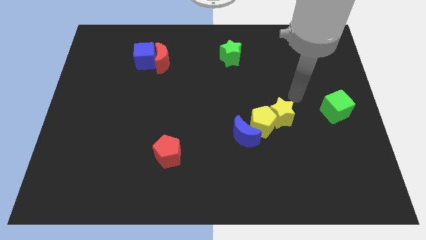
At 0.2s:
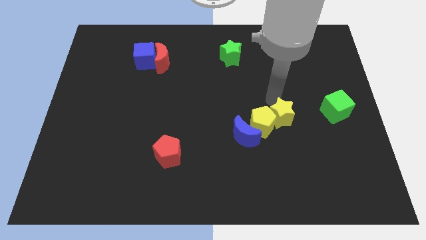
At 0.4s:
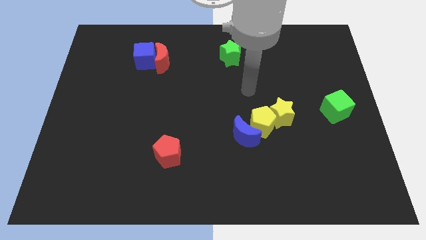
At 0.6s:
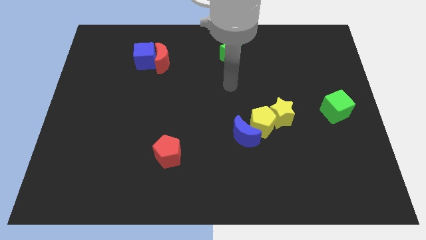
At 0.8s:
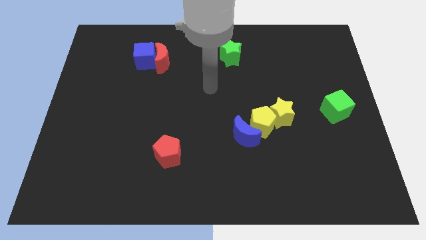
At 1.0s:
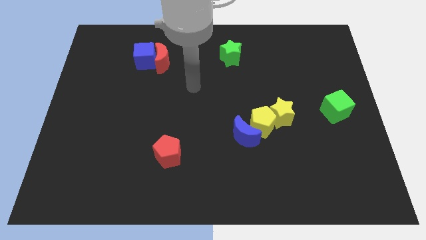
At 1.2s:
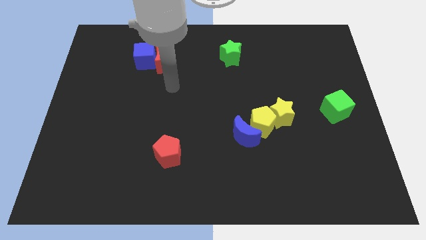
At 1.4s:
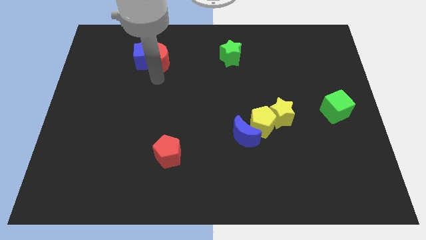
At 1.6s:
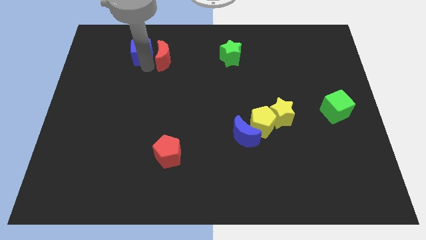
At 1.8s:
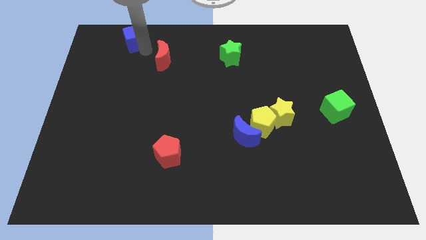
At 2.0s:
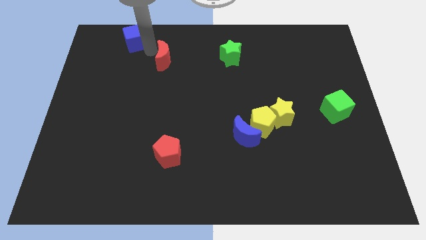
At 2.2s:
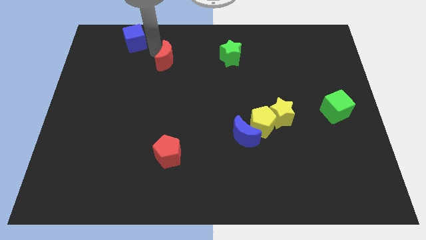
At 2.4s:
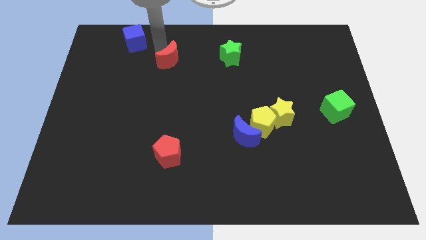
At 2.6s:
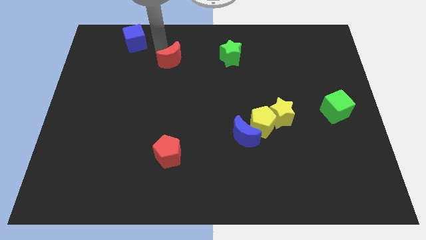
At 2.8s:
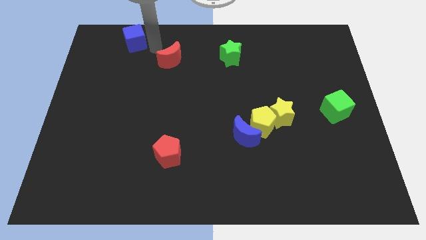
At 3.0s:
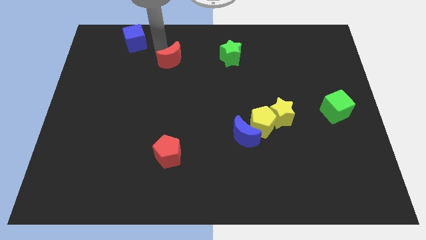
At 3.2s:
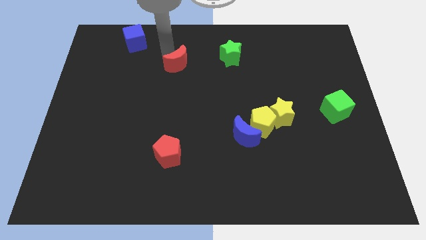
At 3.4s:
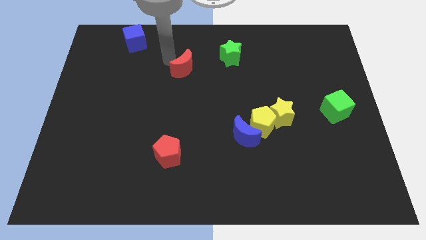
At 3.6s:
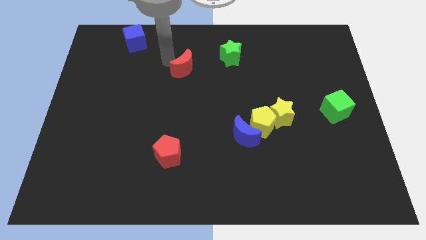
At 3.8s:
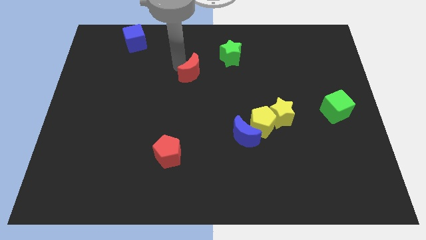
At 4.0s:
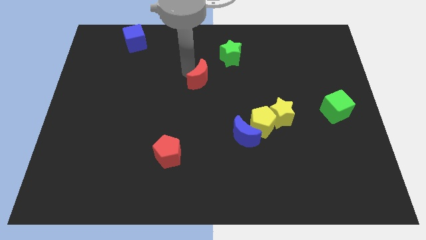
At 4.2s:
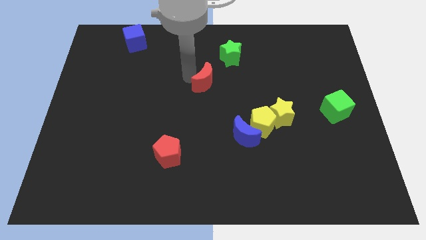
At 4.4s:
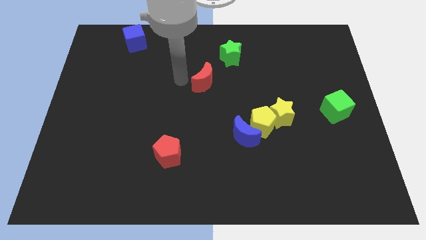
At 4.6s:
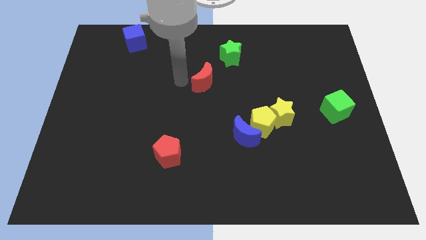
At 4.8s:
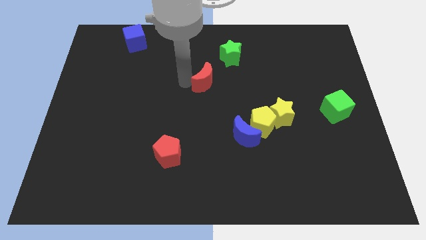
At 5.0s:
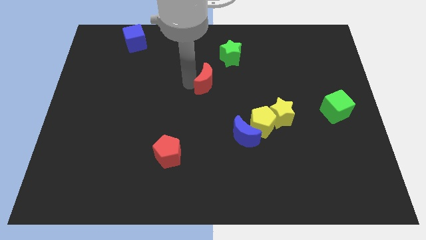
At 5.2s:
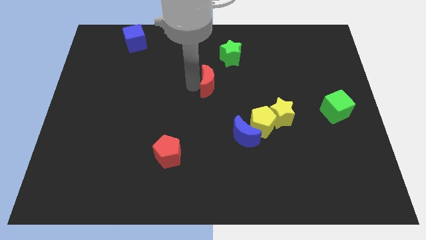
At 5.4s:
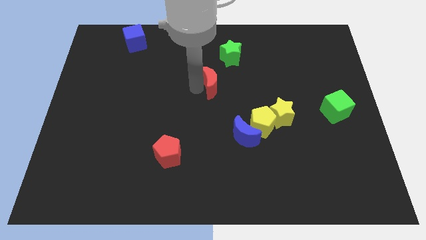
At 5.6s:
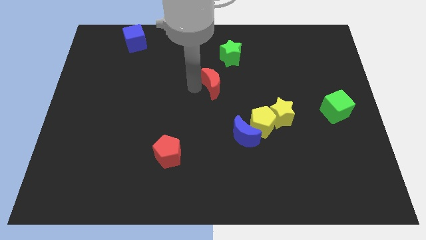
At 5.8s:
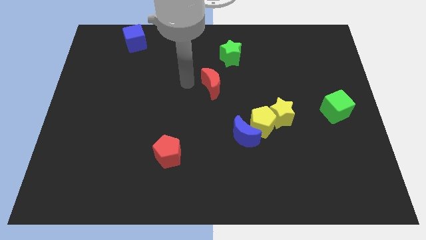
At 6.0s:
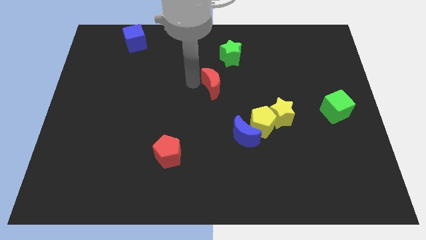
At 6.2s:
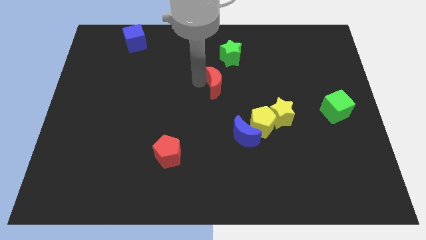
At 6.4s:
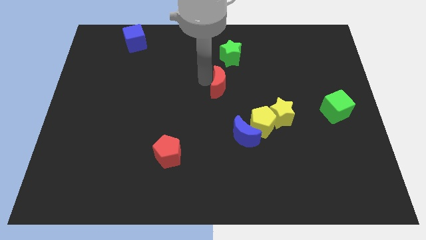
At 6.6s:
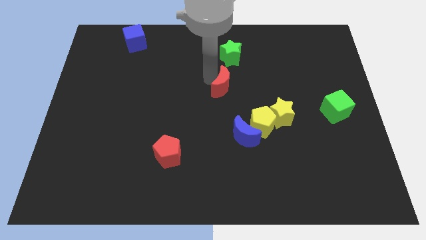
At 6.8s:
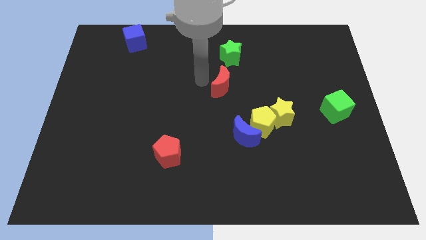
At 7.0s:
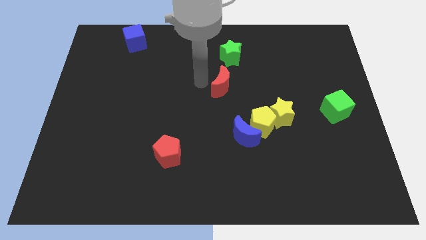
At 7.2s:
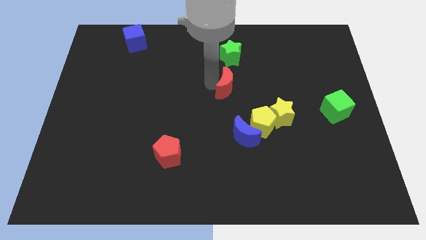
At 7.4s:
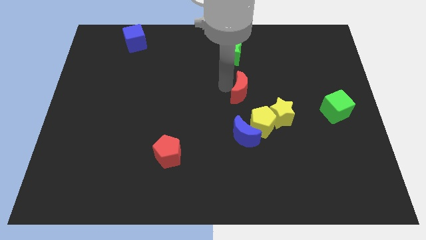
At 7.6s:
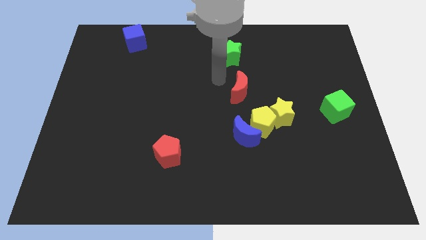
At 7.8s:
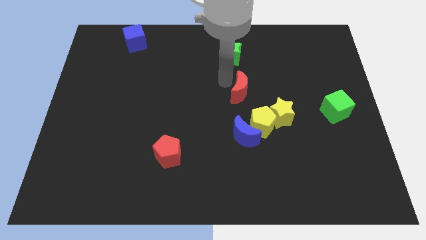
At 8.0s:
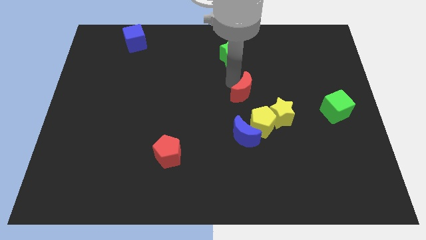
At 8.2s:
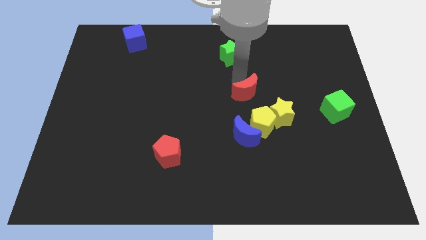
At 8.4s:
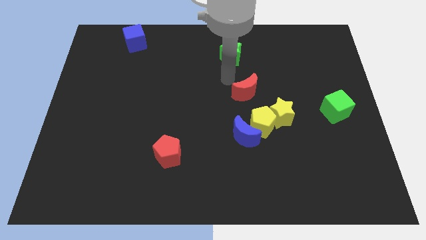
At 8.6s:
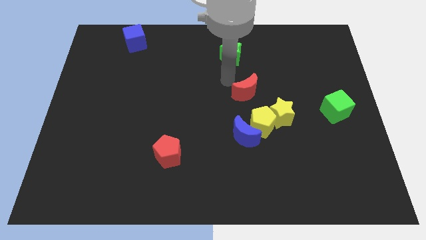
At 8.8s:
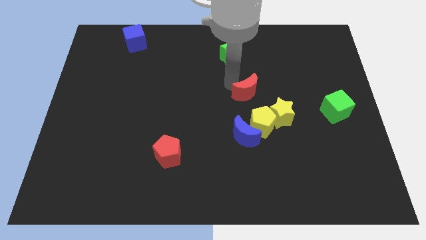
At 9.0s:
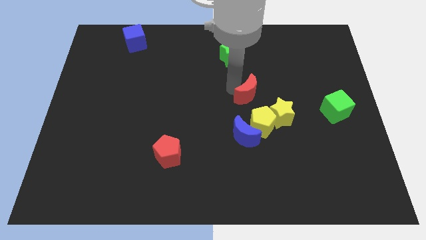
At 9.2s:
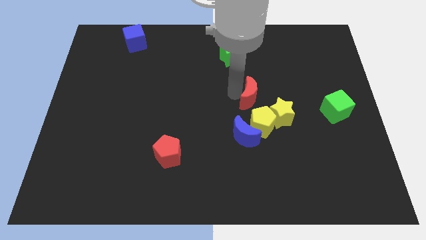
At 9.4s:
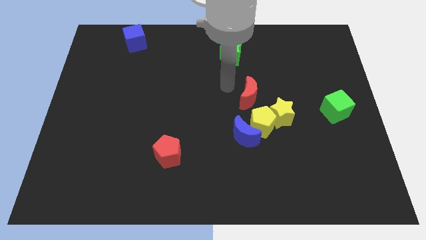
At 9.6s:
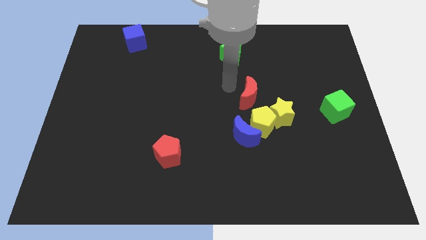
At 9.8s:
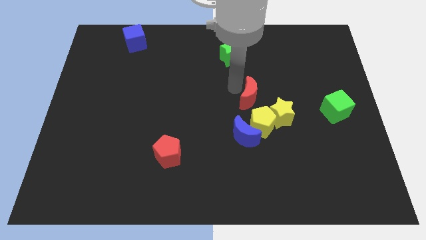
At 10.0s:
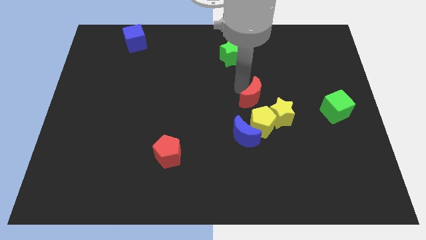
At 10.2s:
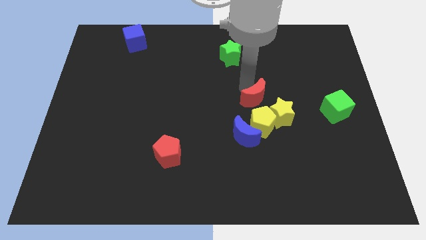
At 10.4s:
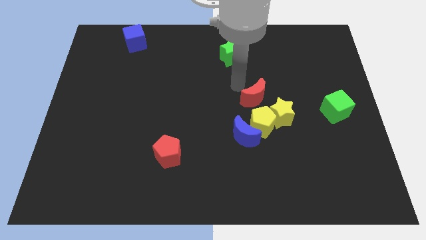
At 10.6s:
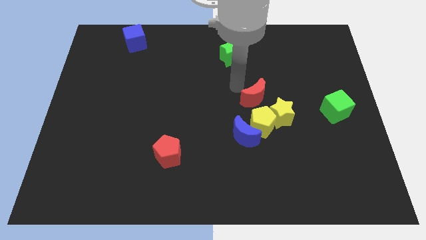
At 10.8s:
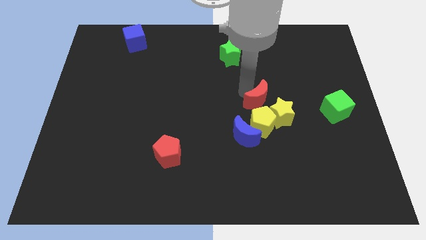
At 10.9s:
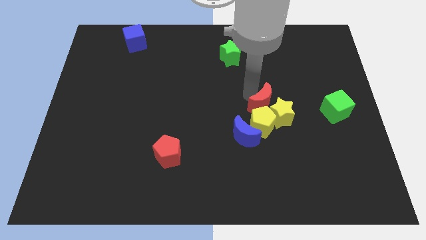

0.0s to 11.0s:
put the red moon close to the yellow star

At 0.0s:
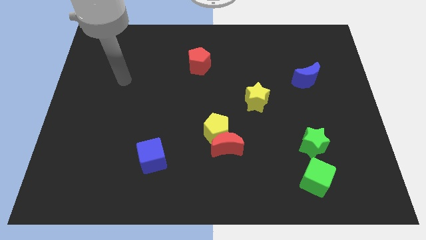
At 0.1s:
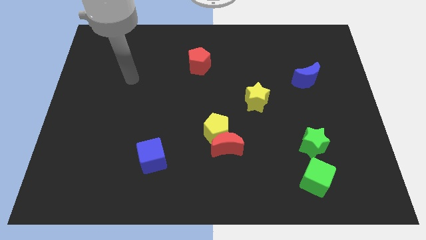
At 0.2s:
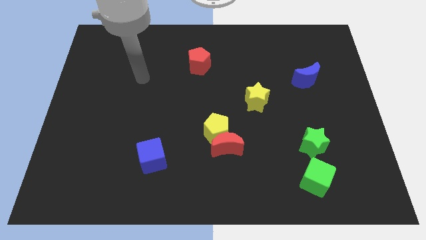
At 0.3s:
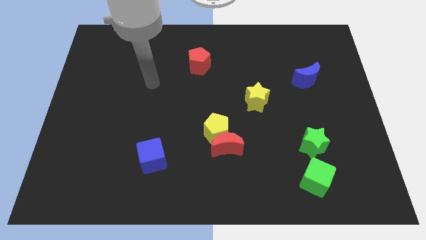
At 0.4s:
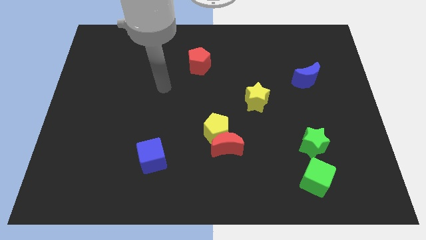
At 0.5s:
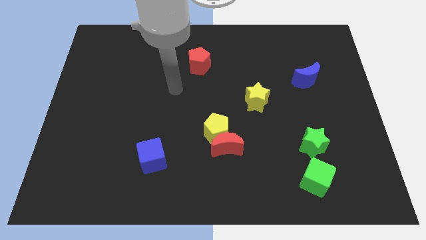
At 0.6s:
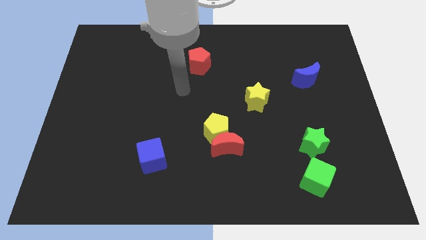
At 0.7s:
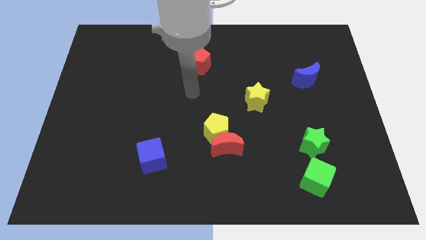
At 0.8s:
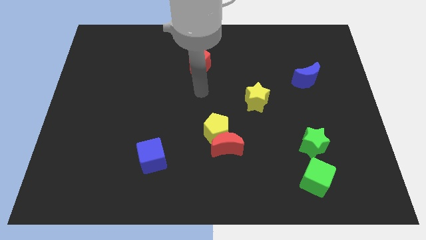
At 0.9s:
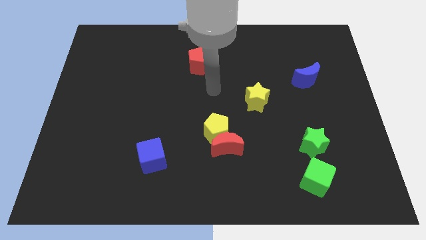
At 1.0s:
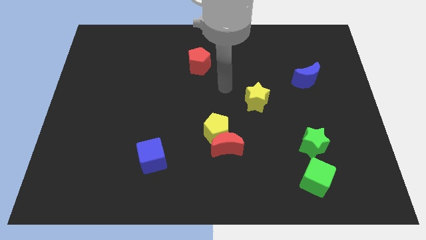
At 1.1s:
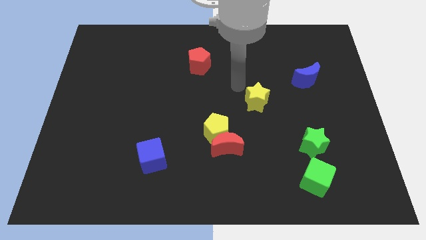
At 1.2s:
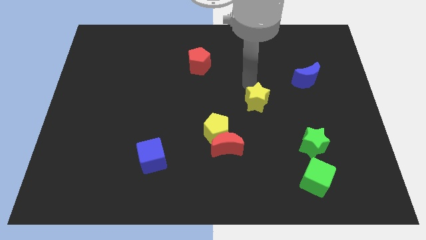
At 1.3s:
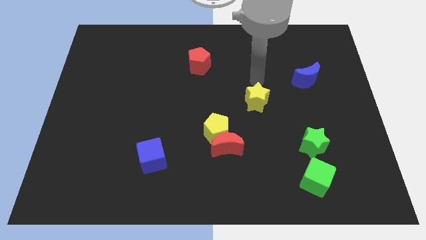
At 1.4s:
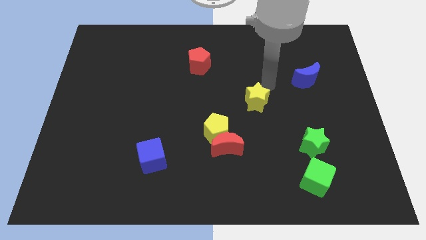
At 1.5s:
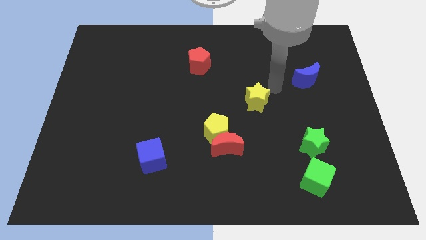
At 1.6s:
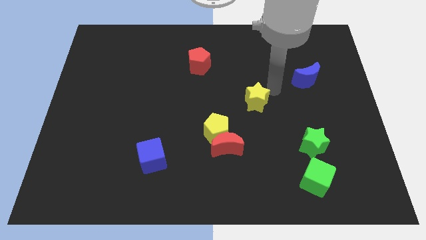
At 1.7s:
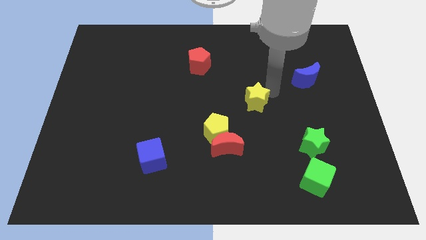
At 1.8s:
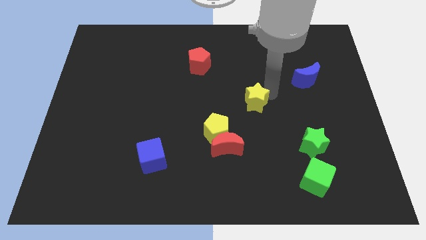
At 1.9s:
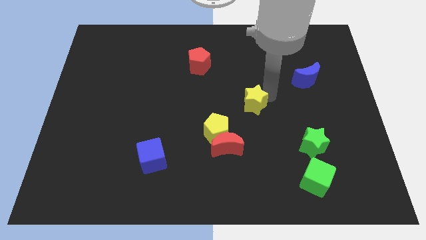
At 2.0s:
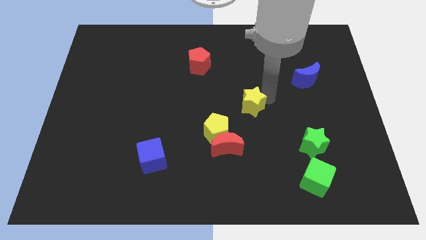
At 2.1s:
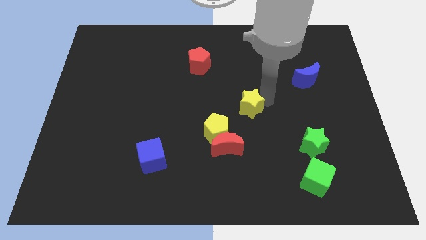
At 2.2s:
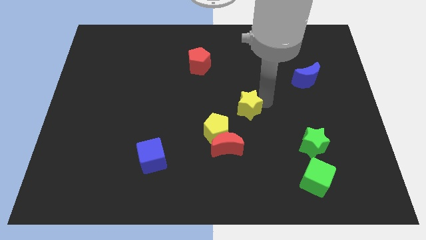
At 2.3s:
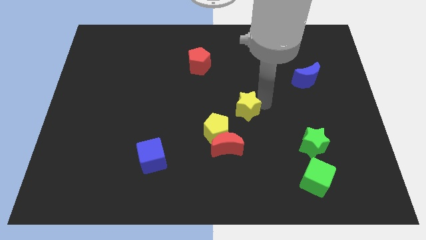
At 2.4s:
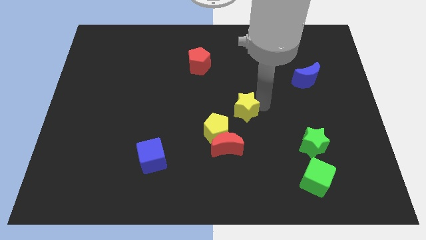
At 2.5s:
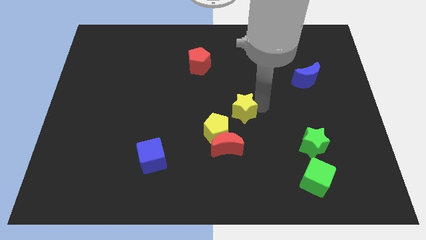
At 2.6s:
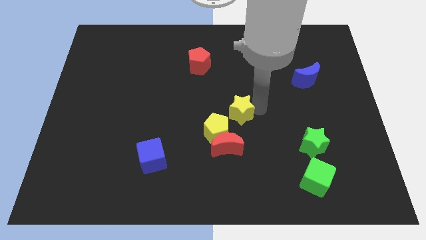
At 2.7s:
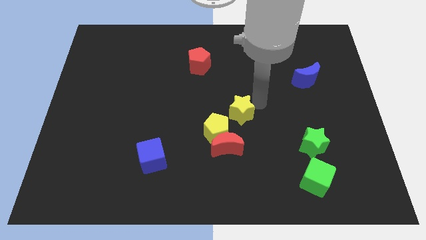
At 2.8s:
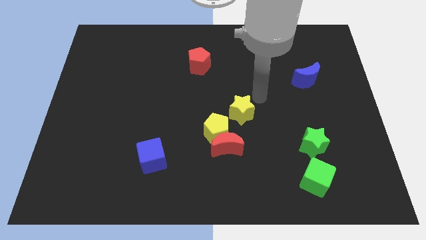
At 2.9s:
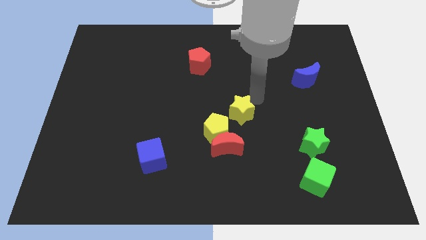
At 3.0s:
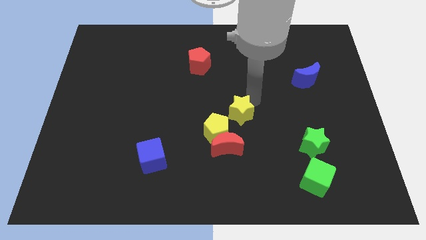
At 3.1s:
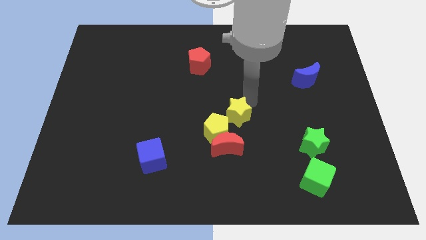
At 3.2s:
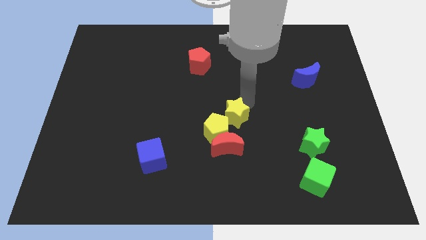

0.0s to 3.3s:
push the yellow star to the yellow pentagon
